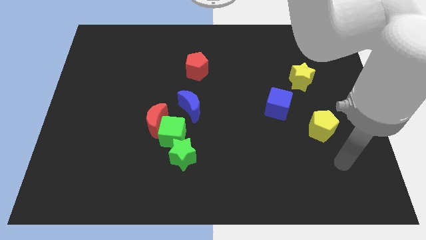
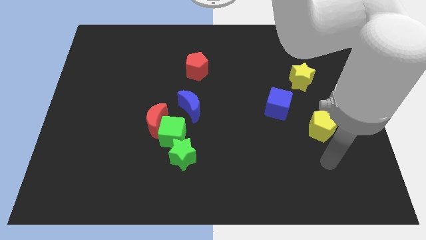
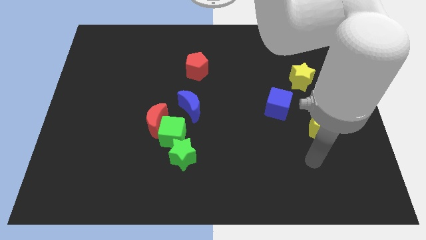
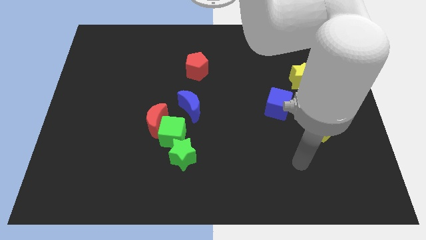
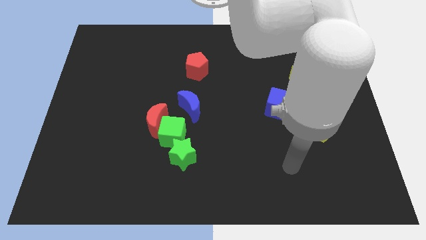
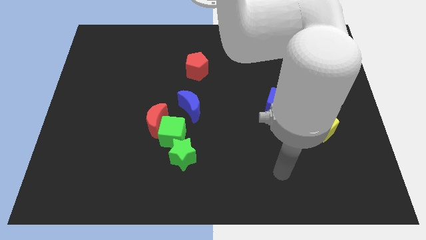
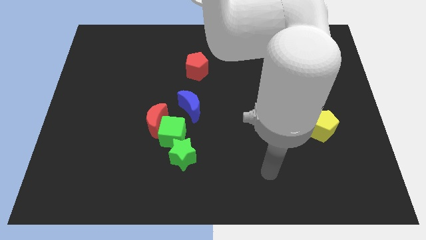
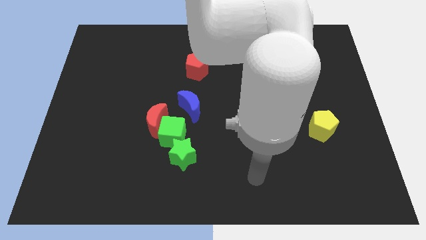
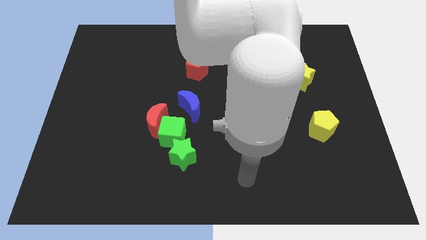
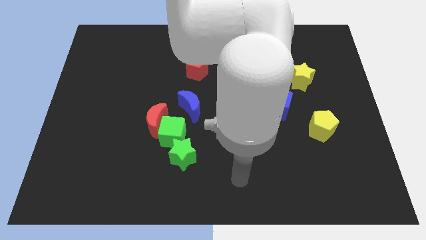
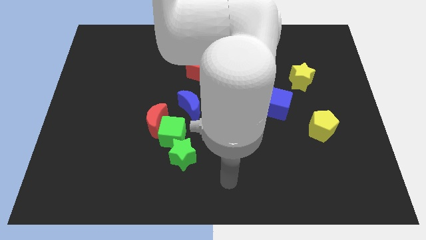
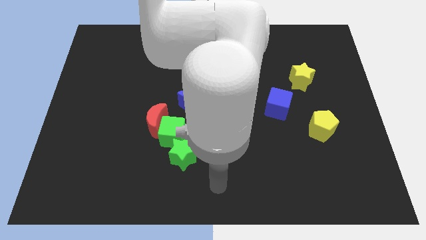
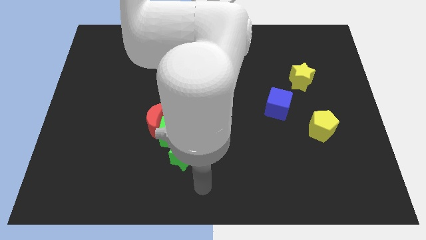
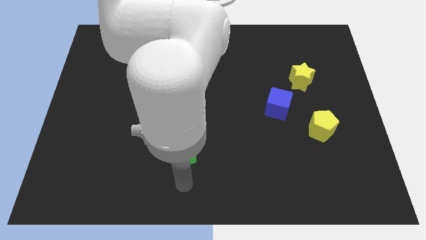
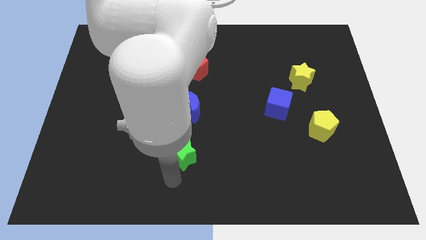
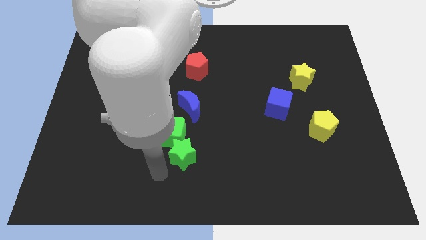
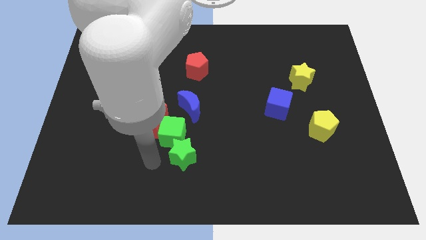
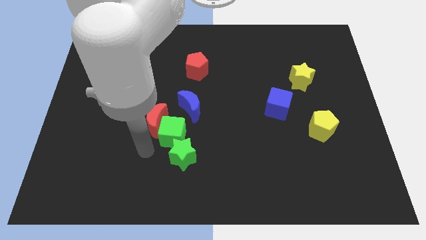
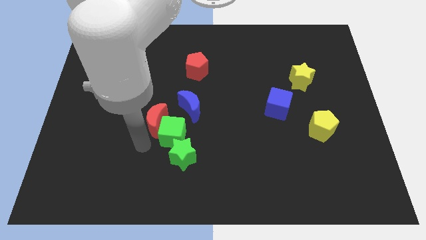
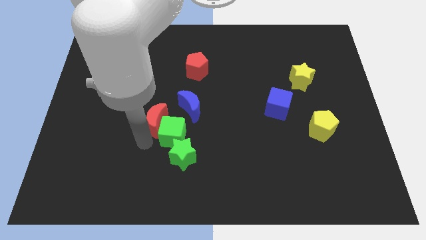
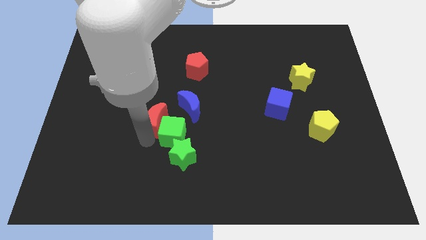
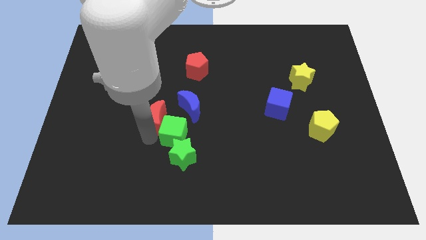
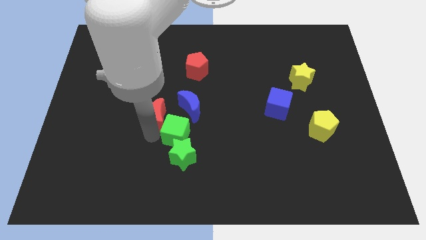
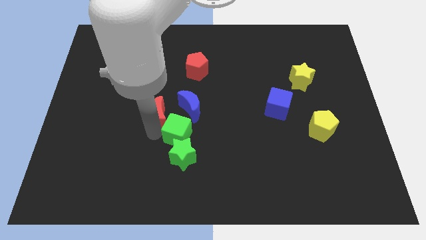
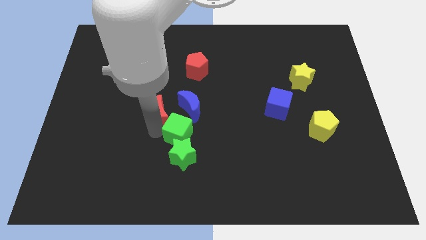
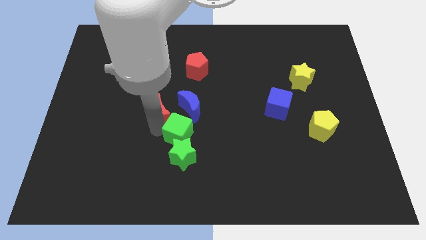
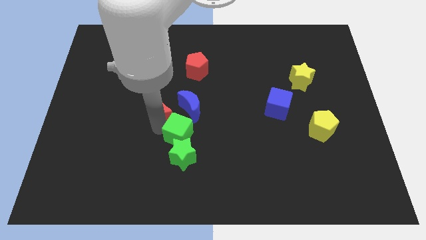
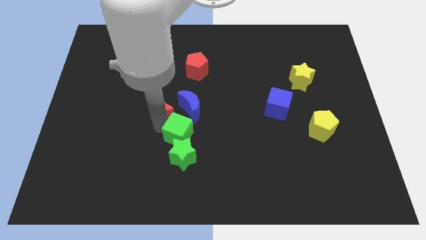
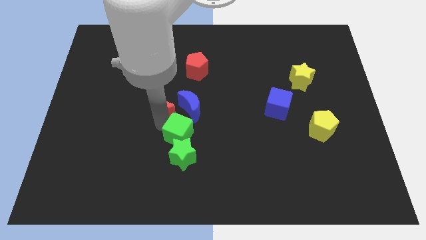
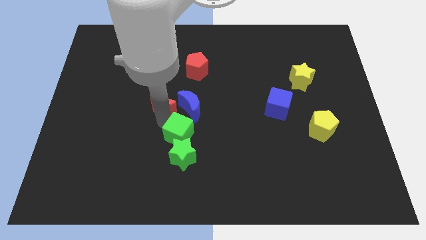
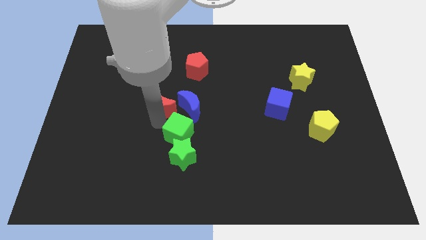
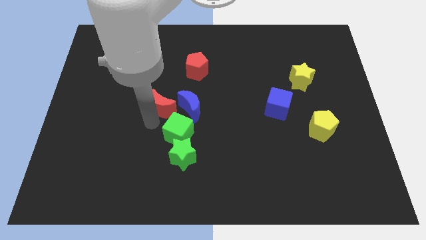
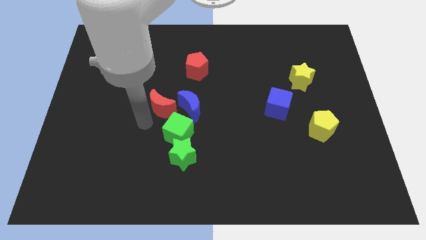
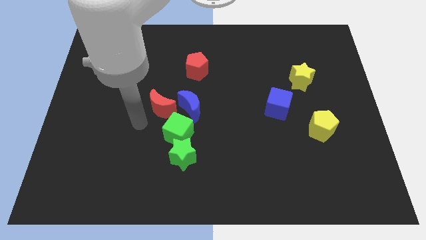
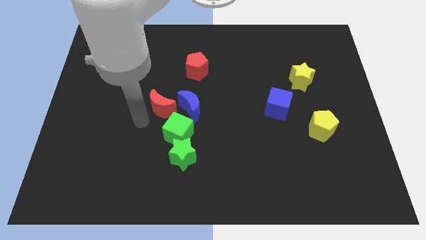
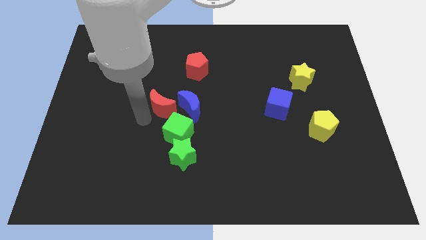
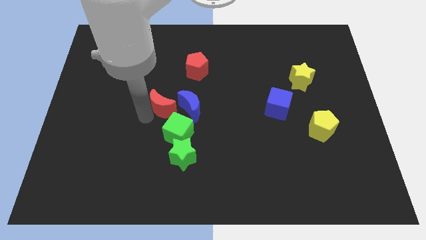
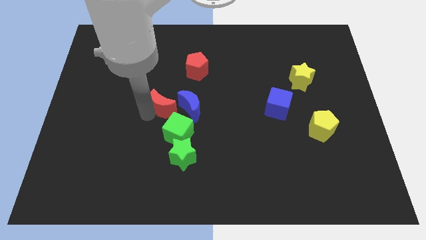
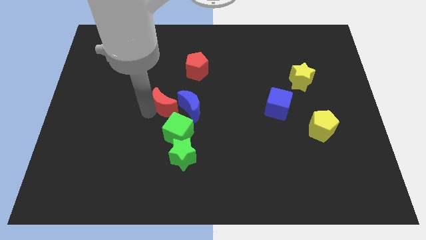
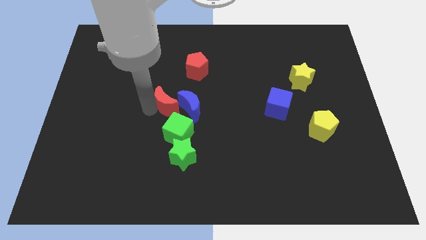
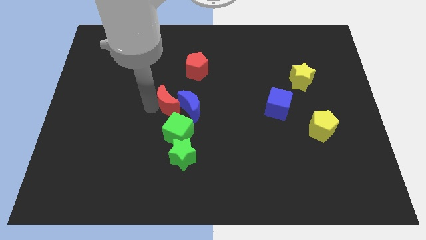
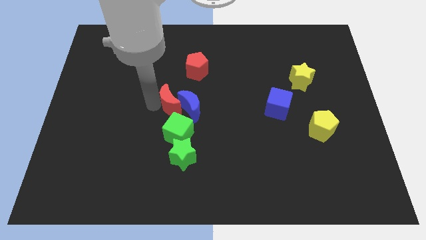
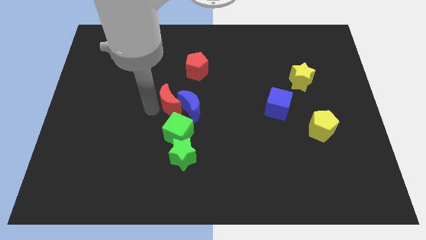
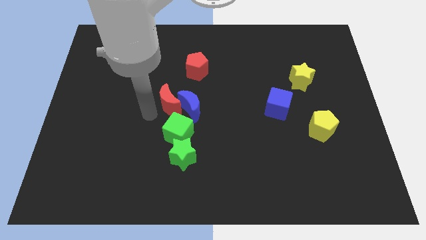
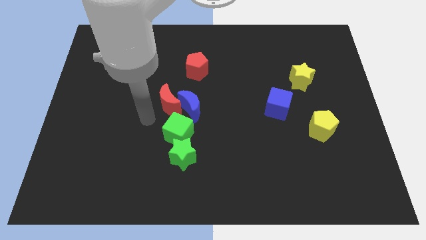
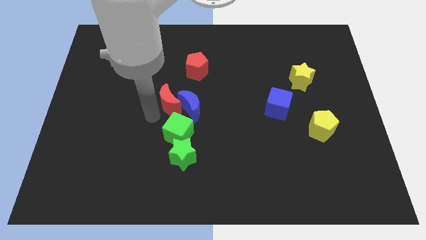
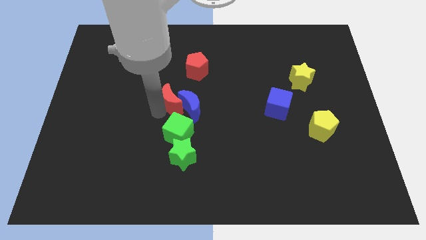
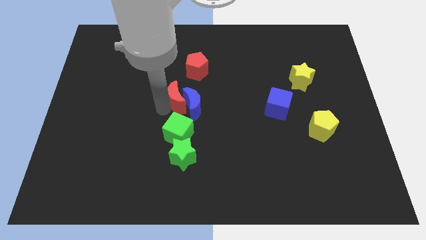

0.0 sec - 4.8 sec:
slightly push the red moon up and then right

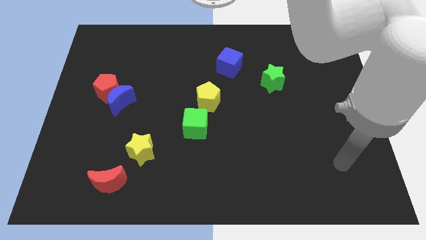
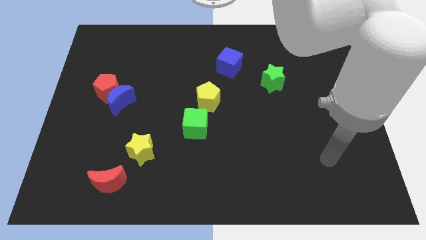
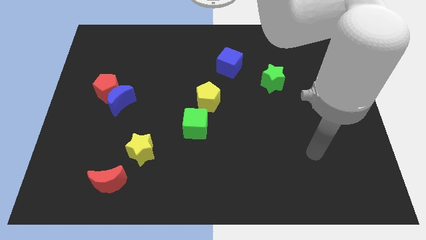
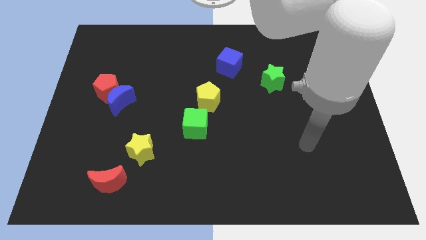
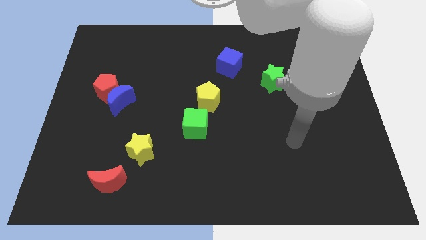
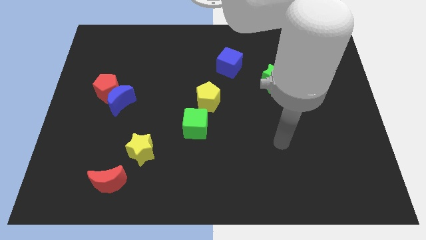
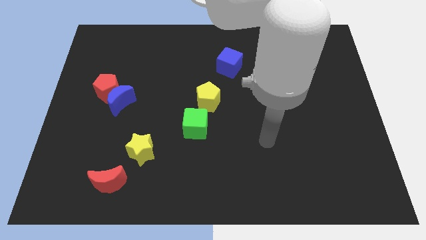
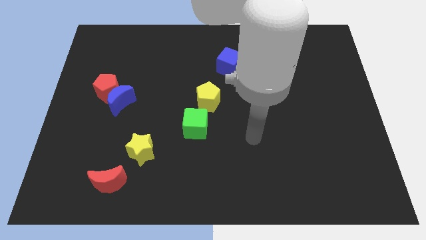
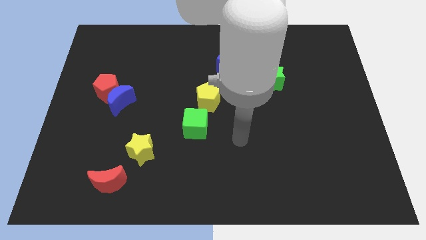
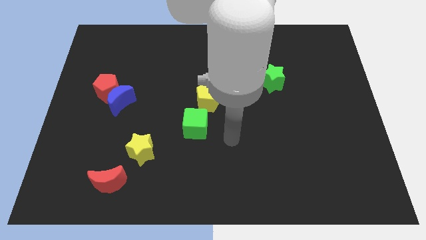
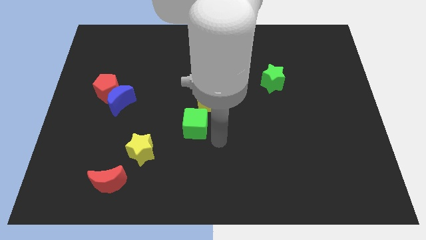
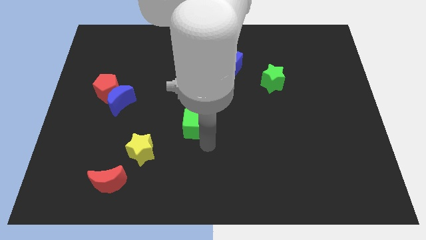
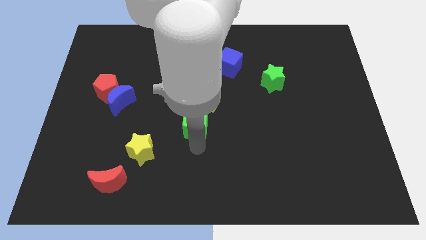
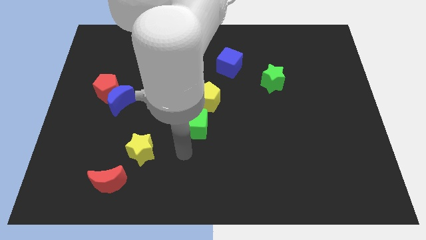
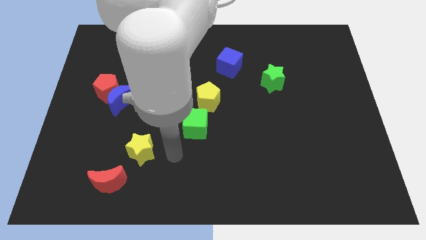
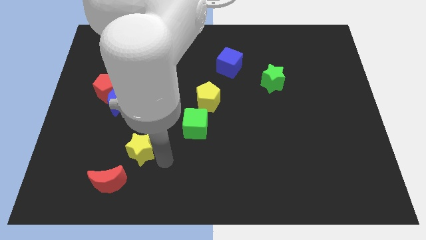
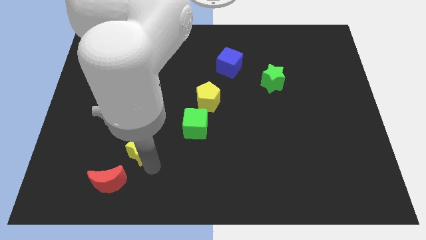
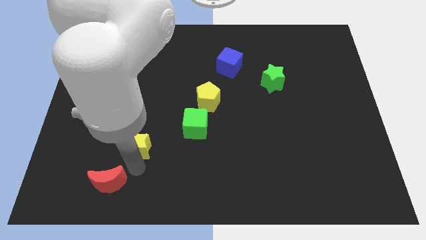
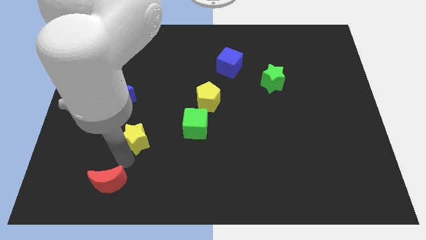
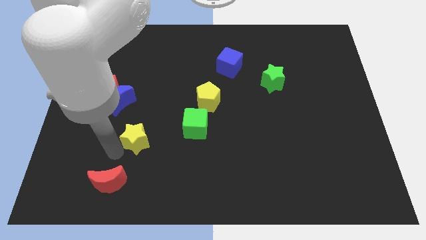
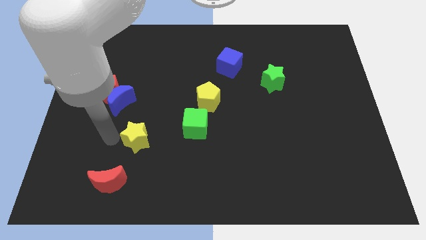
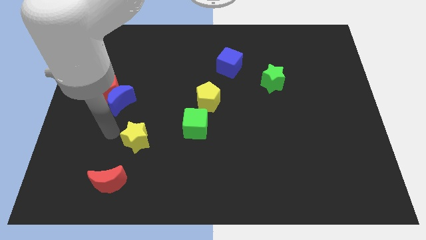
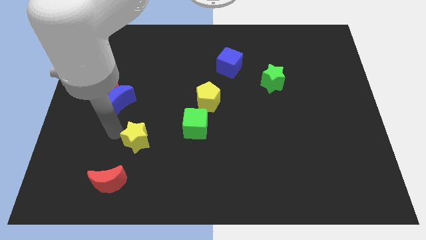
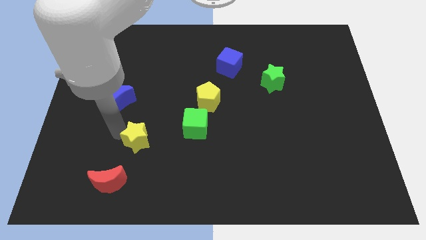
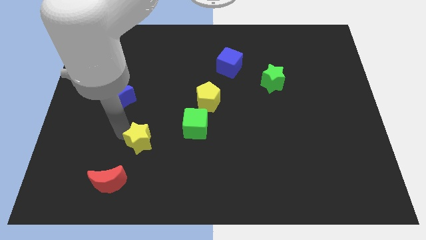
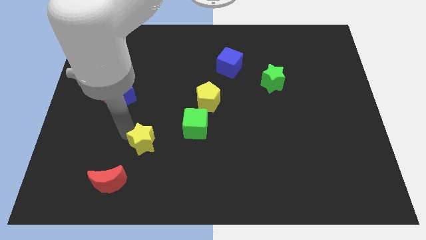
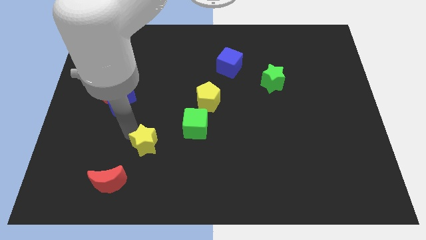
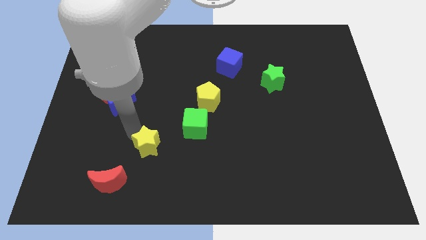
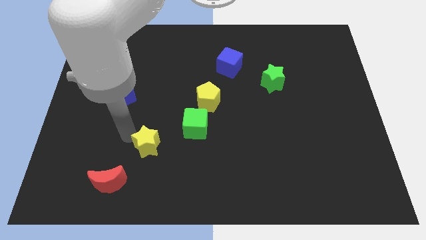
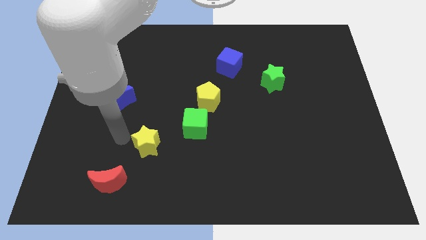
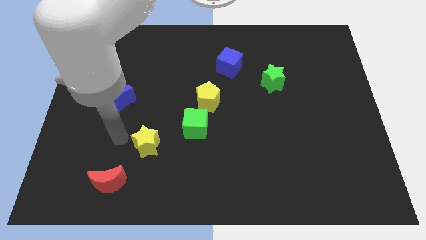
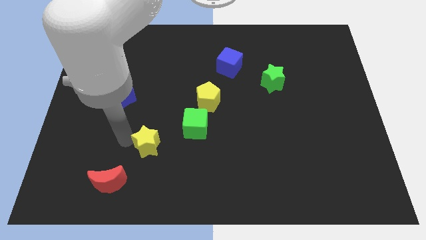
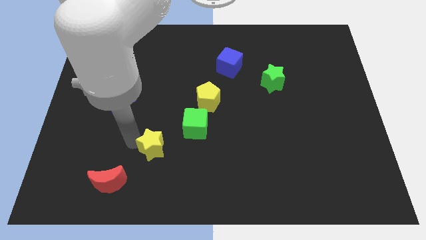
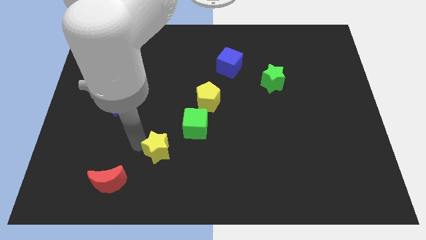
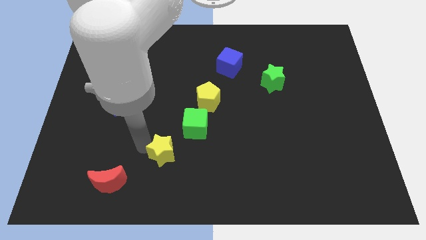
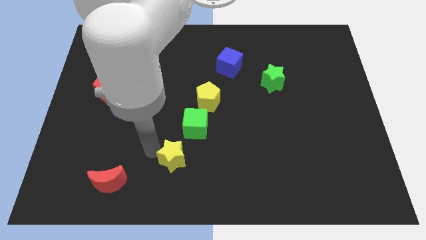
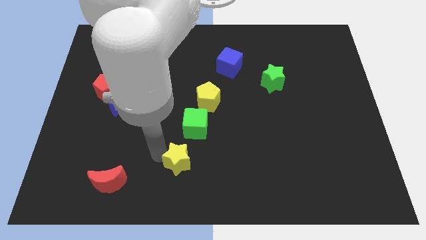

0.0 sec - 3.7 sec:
push the yellow star a bit right
